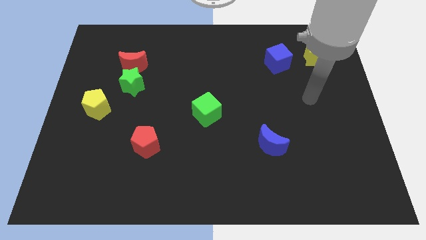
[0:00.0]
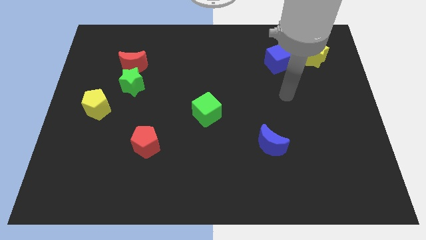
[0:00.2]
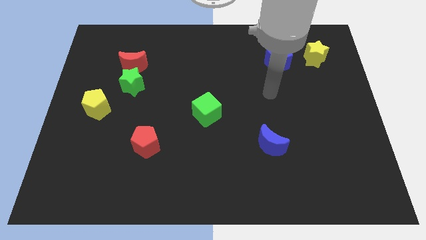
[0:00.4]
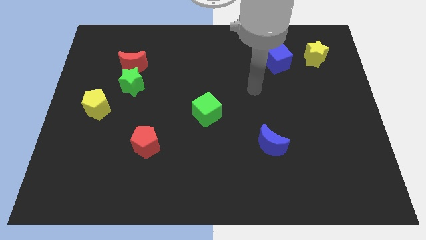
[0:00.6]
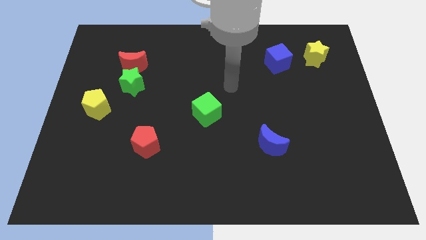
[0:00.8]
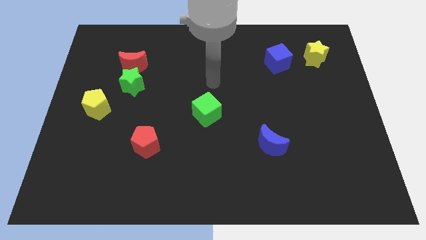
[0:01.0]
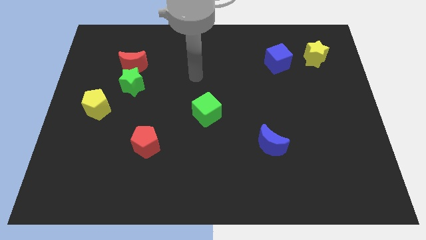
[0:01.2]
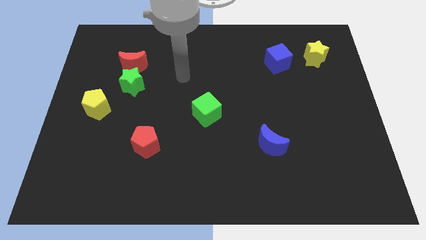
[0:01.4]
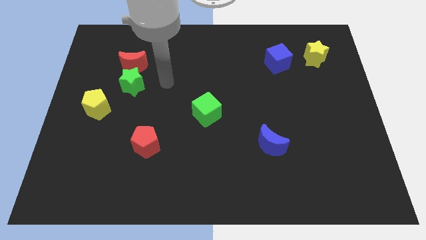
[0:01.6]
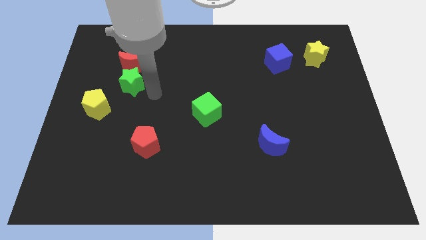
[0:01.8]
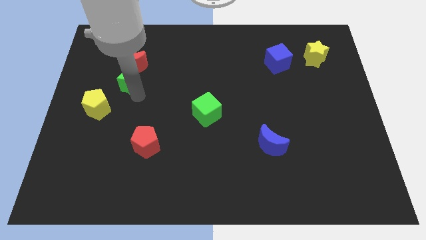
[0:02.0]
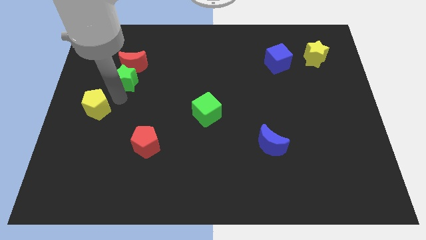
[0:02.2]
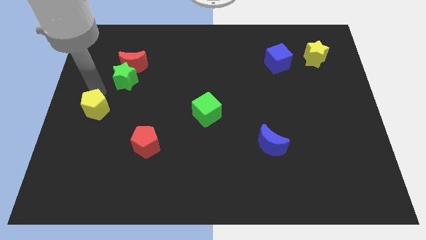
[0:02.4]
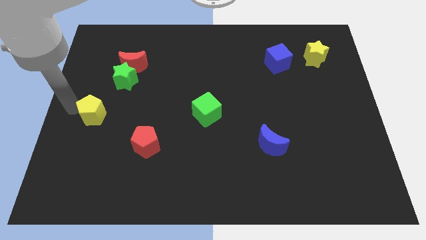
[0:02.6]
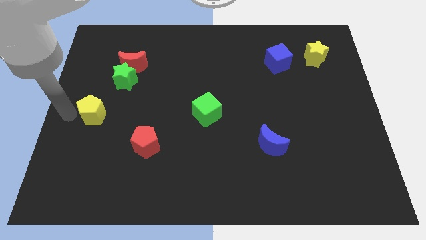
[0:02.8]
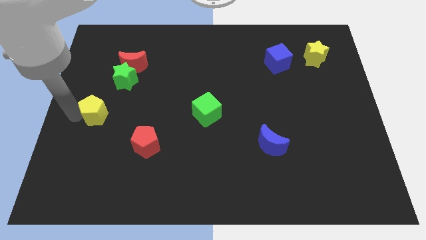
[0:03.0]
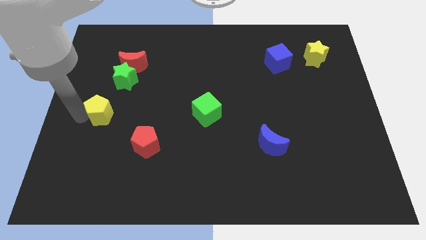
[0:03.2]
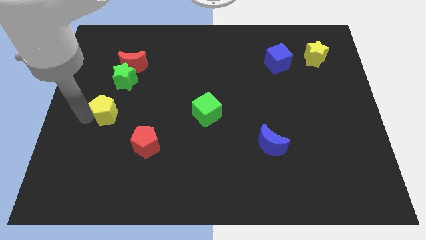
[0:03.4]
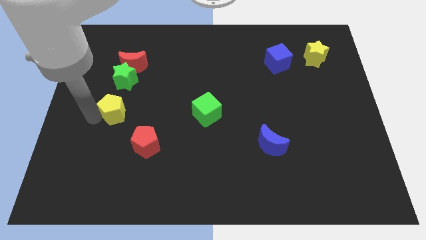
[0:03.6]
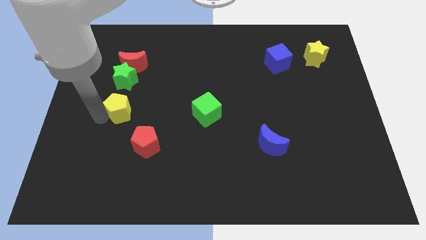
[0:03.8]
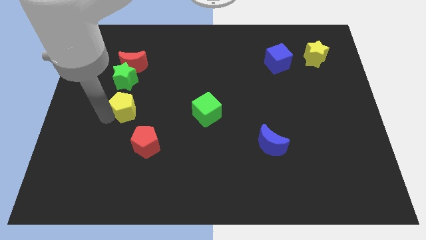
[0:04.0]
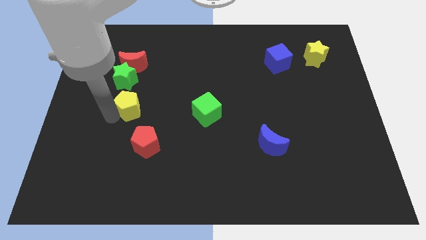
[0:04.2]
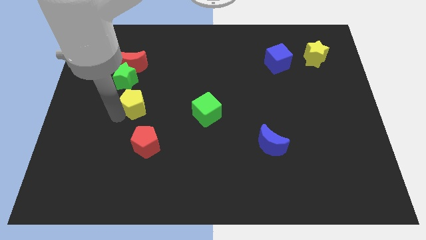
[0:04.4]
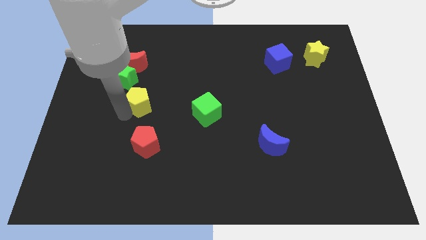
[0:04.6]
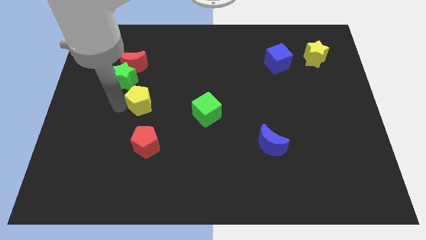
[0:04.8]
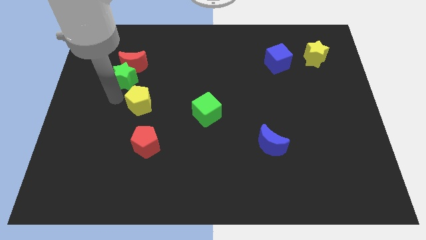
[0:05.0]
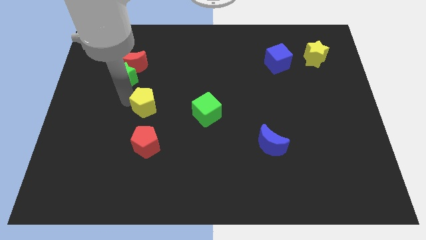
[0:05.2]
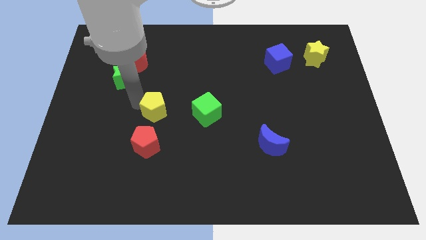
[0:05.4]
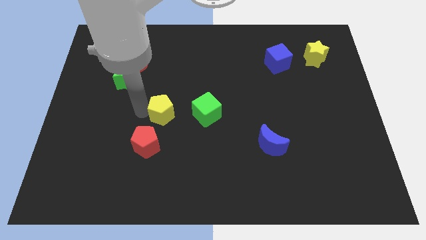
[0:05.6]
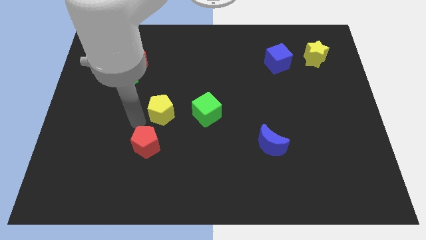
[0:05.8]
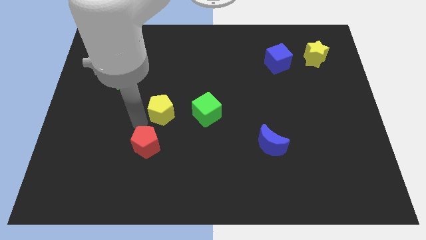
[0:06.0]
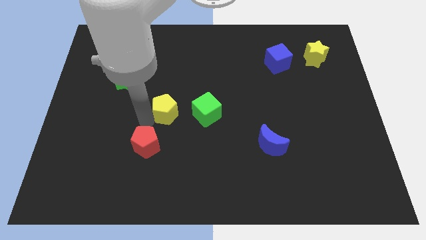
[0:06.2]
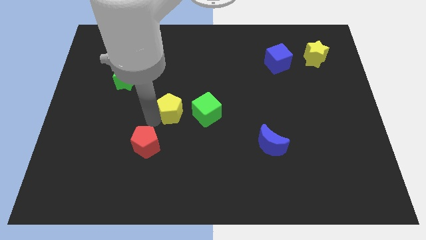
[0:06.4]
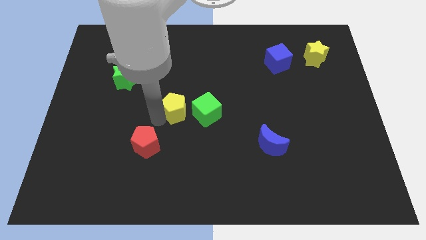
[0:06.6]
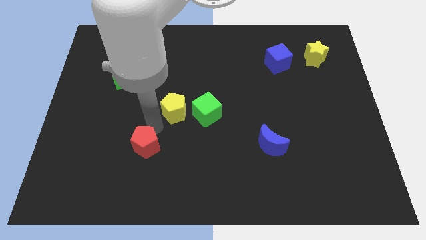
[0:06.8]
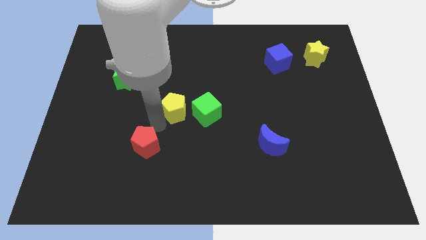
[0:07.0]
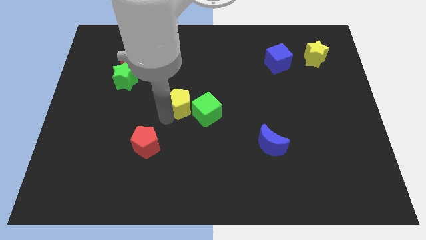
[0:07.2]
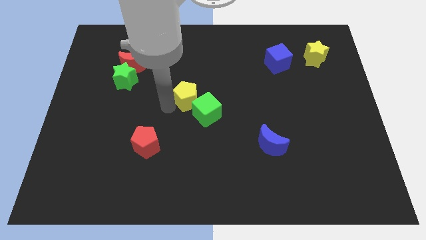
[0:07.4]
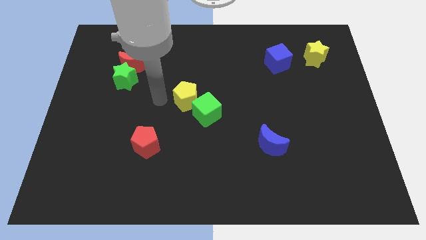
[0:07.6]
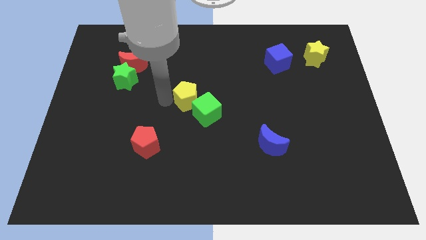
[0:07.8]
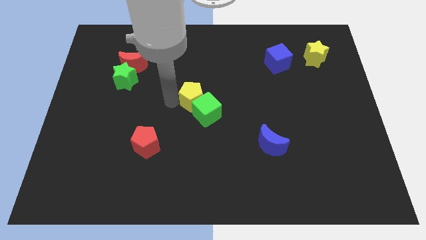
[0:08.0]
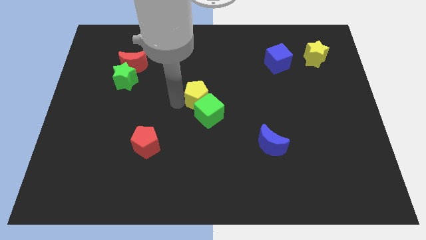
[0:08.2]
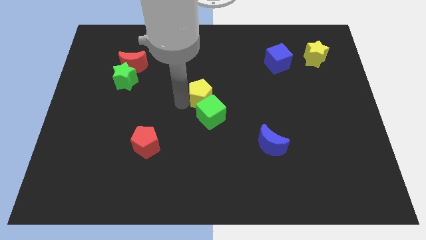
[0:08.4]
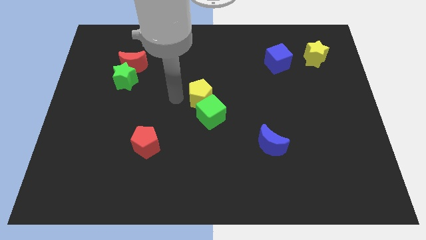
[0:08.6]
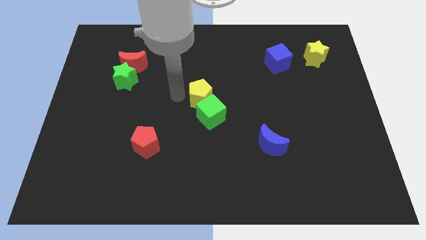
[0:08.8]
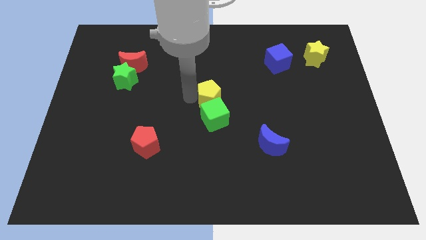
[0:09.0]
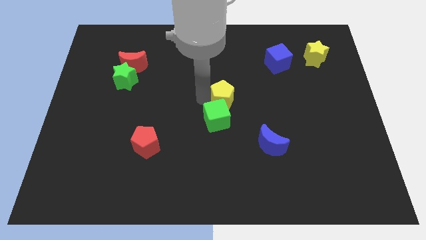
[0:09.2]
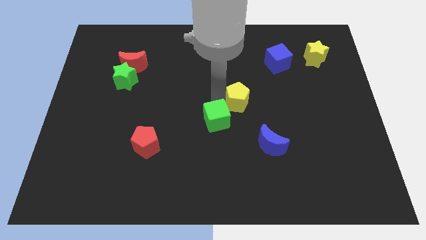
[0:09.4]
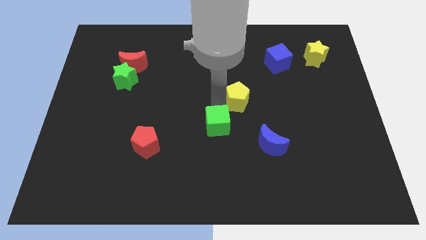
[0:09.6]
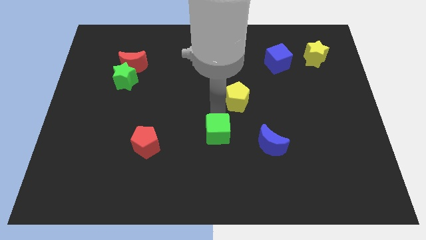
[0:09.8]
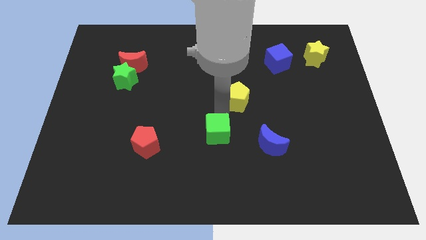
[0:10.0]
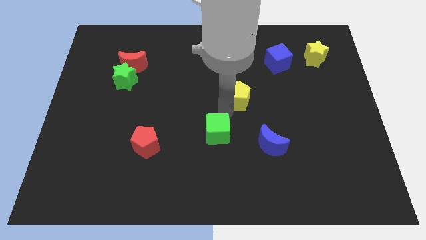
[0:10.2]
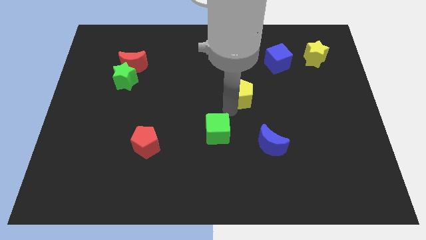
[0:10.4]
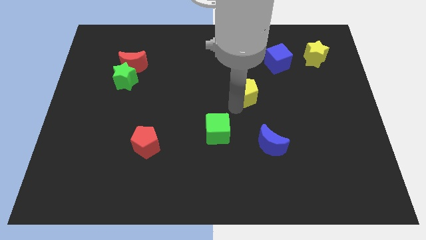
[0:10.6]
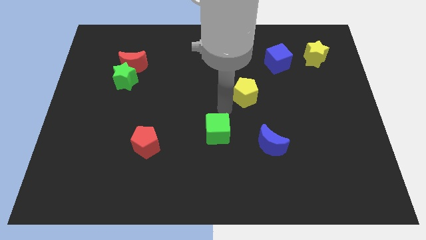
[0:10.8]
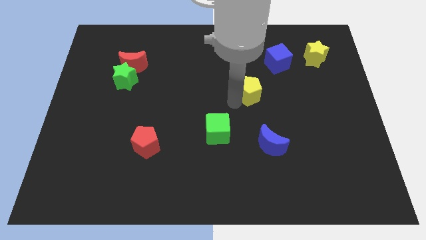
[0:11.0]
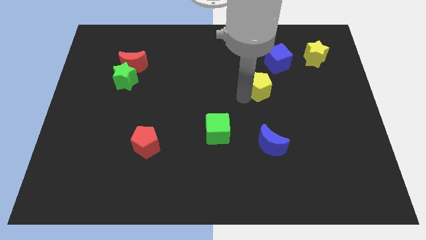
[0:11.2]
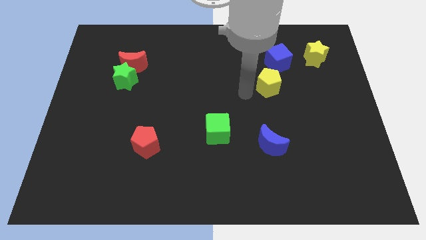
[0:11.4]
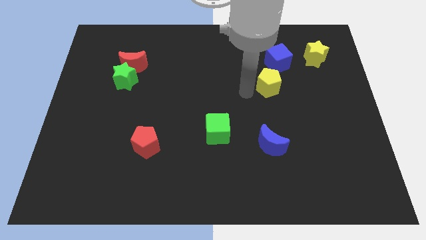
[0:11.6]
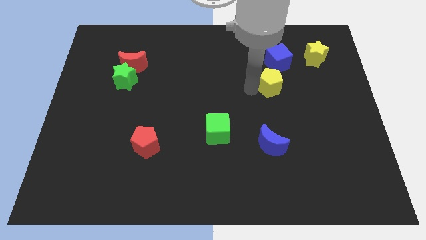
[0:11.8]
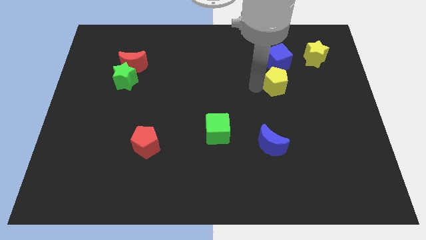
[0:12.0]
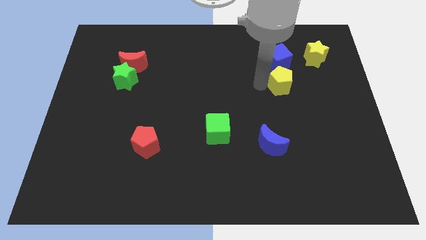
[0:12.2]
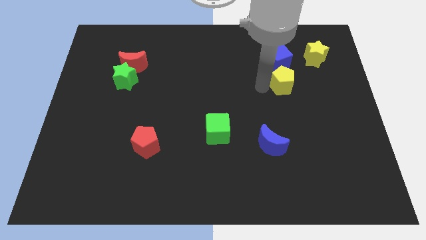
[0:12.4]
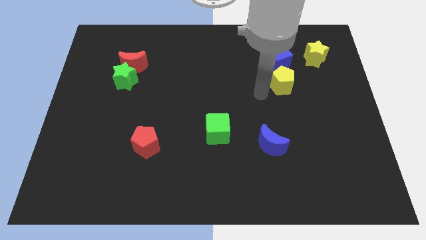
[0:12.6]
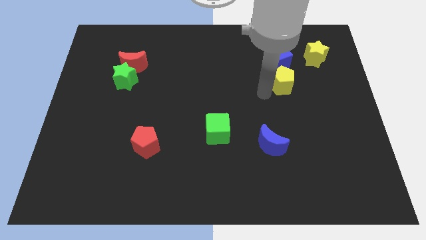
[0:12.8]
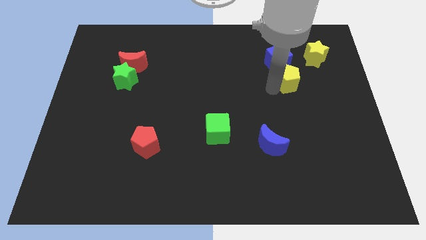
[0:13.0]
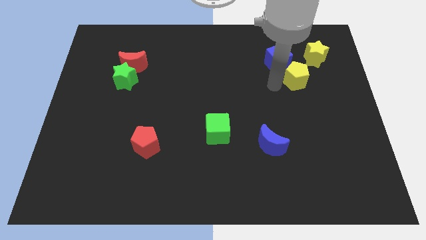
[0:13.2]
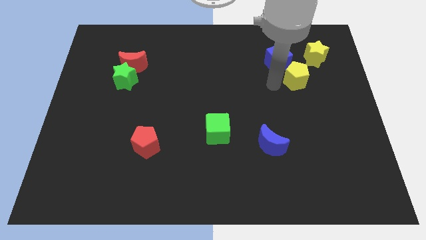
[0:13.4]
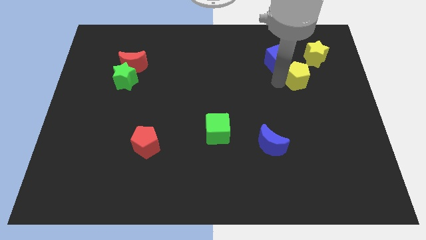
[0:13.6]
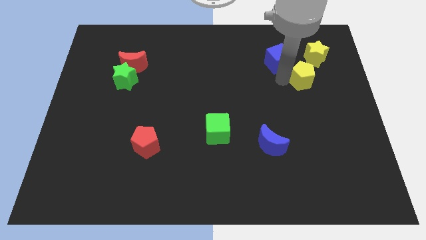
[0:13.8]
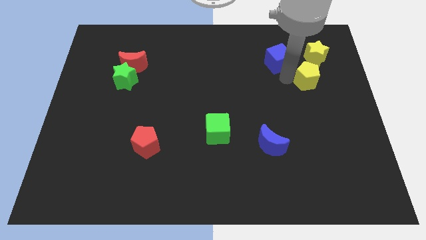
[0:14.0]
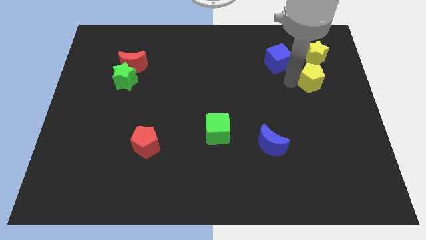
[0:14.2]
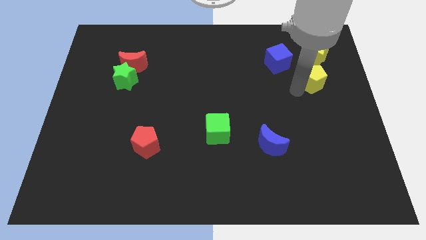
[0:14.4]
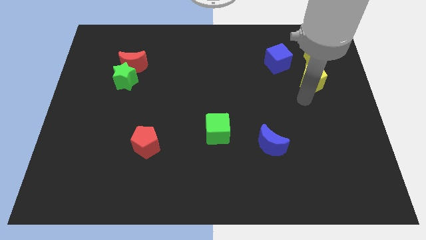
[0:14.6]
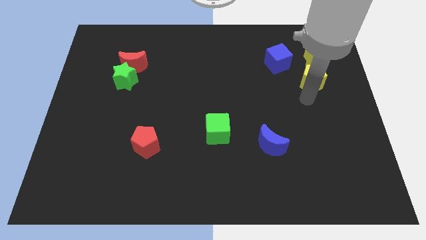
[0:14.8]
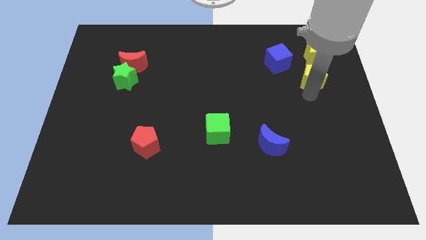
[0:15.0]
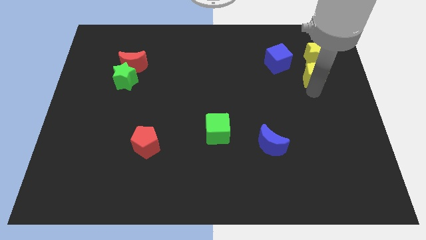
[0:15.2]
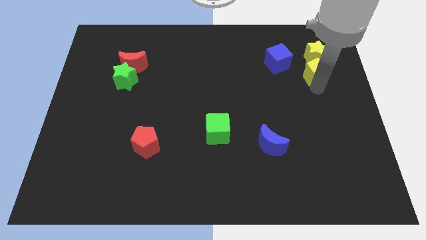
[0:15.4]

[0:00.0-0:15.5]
push the yellow pentagon just right of the blue cube
